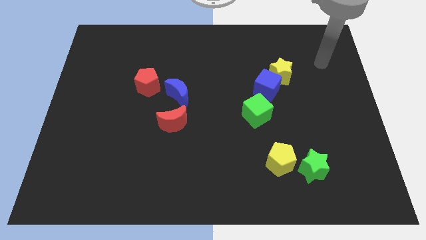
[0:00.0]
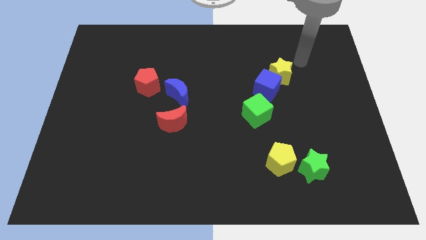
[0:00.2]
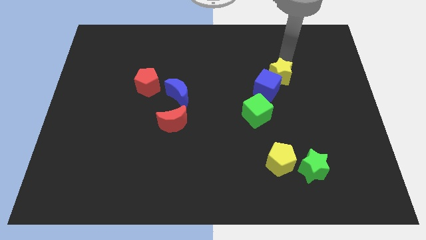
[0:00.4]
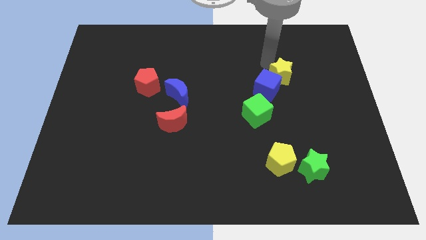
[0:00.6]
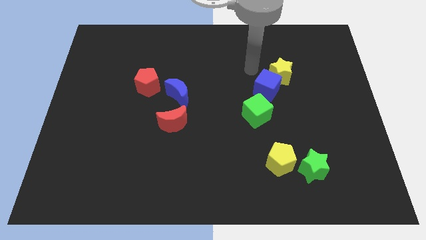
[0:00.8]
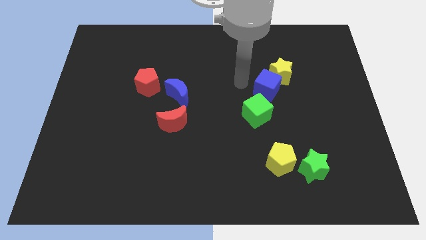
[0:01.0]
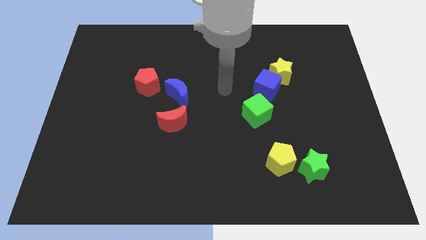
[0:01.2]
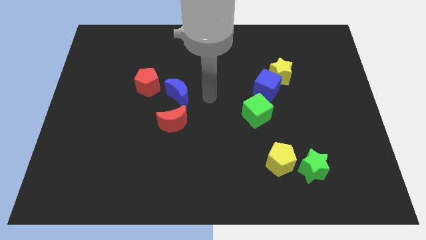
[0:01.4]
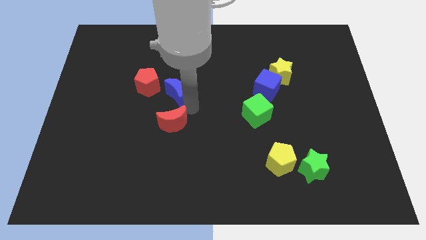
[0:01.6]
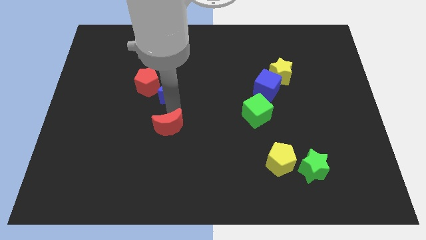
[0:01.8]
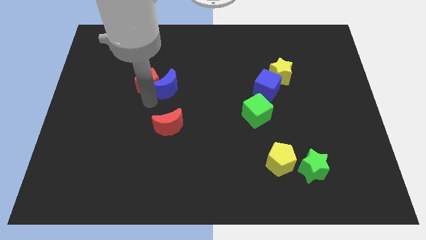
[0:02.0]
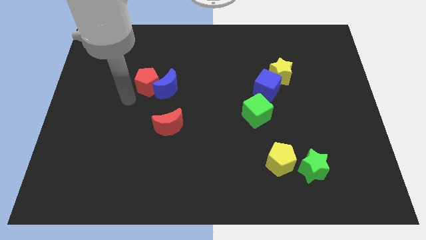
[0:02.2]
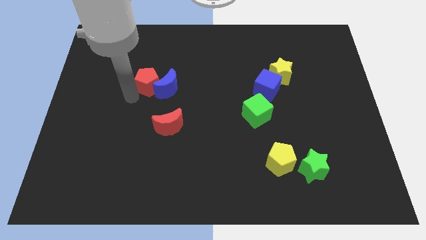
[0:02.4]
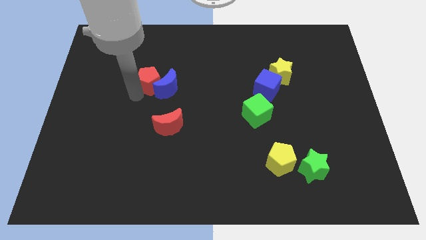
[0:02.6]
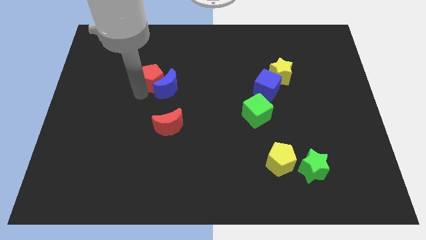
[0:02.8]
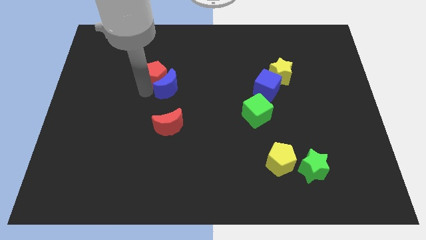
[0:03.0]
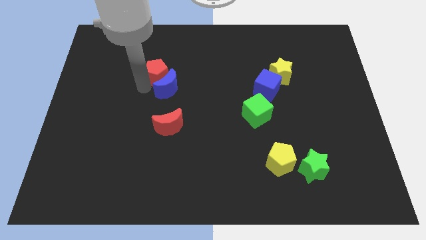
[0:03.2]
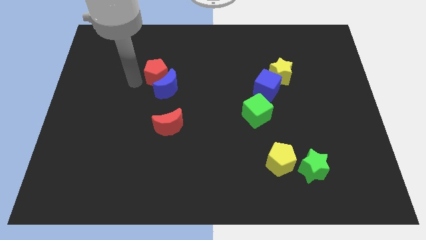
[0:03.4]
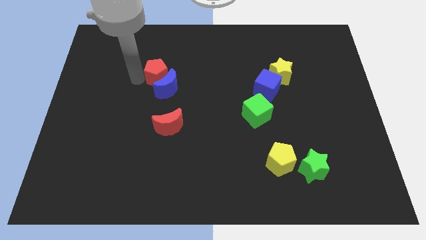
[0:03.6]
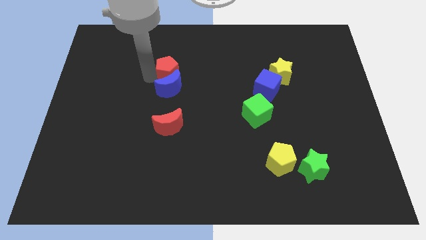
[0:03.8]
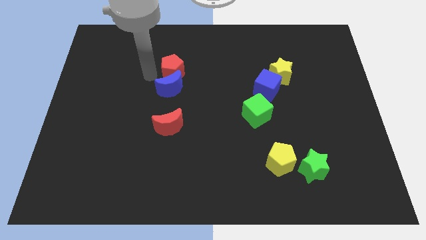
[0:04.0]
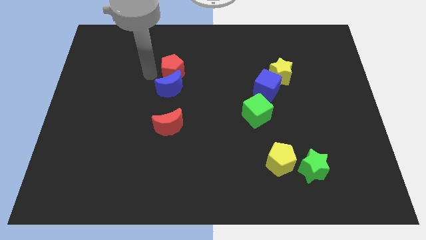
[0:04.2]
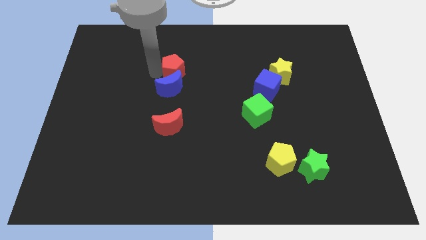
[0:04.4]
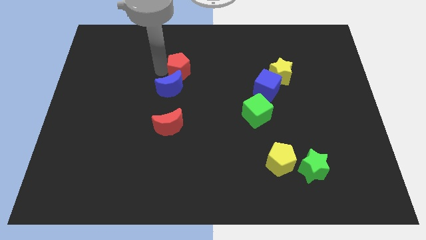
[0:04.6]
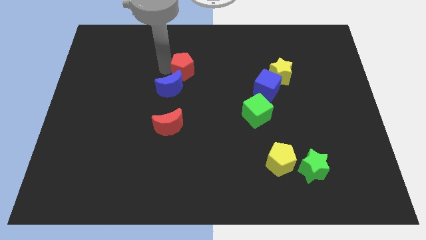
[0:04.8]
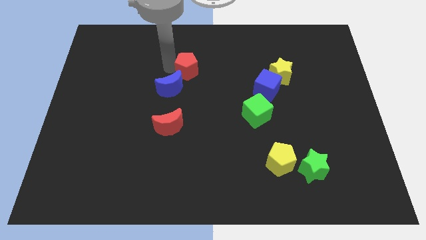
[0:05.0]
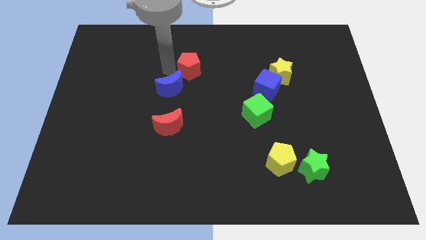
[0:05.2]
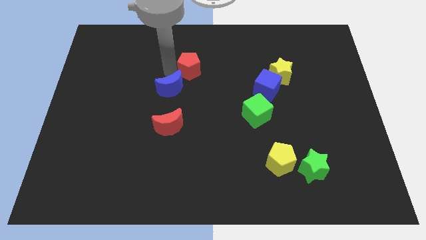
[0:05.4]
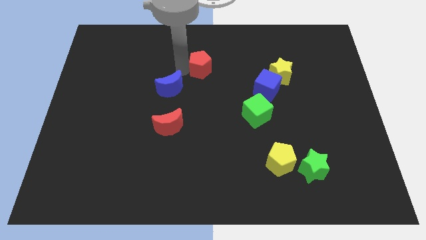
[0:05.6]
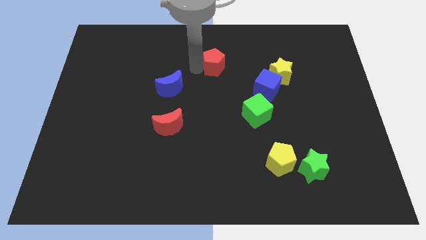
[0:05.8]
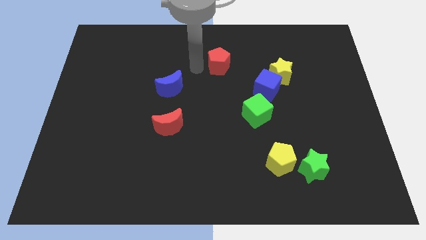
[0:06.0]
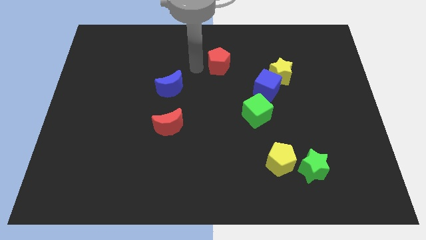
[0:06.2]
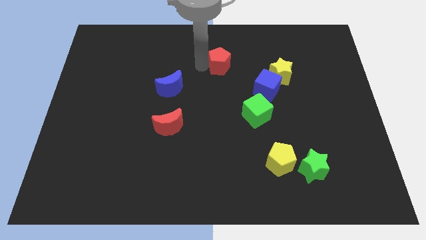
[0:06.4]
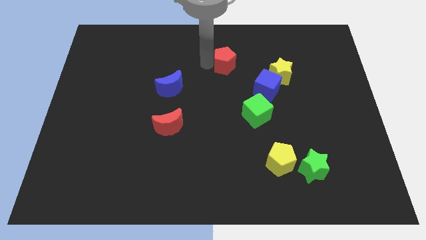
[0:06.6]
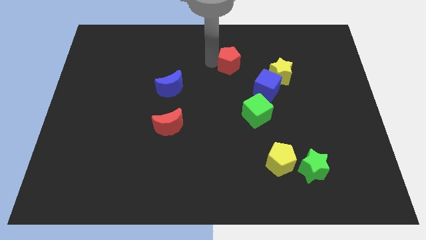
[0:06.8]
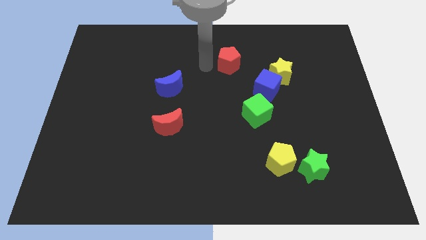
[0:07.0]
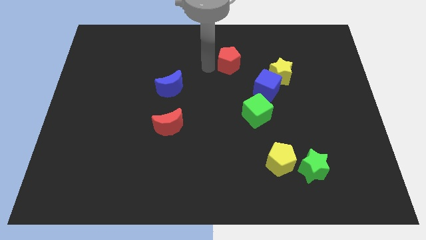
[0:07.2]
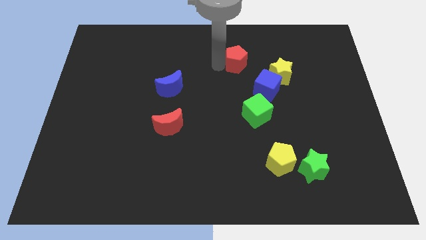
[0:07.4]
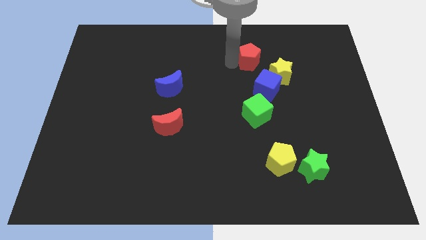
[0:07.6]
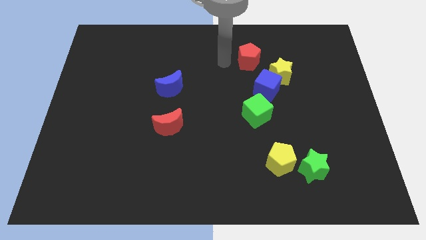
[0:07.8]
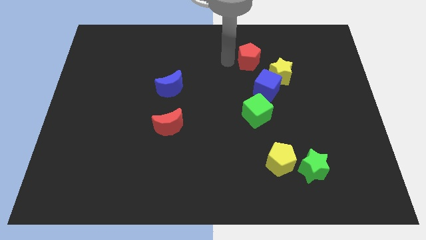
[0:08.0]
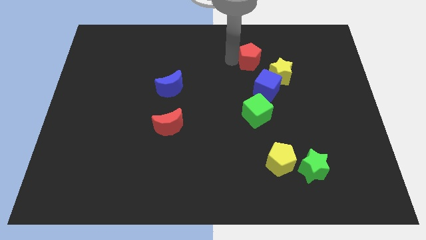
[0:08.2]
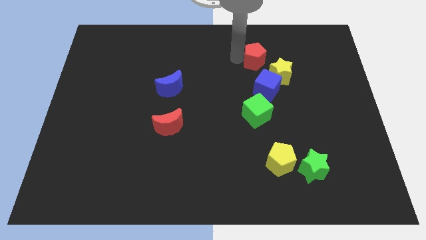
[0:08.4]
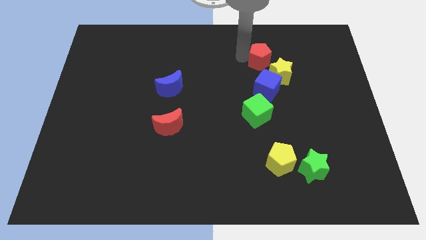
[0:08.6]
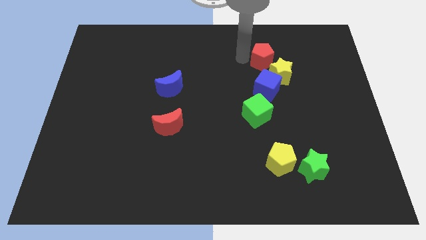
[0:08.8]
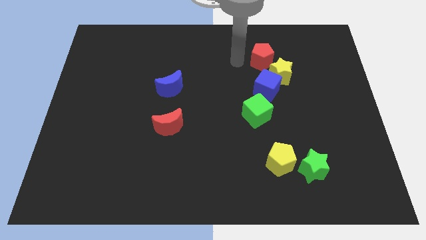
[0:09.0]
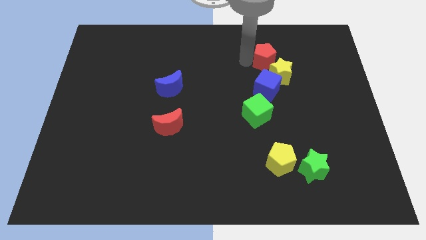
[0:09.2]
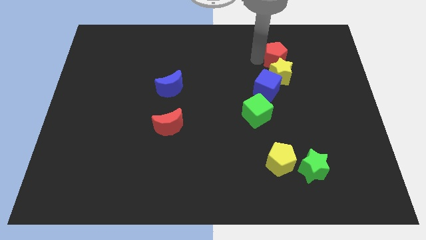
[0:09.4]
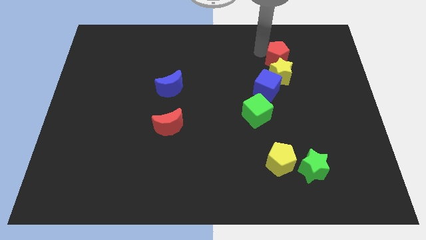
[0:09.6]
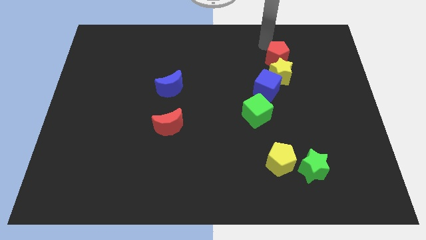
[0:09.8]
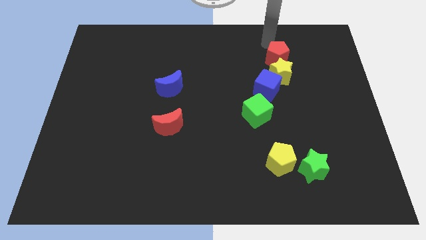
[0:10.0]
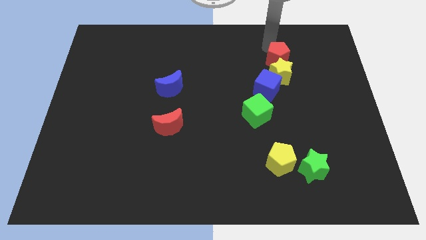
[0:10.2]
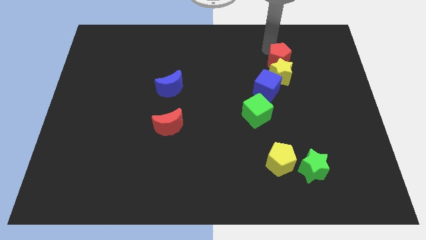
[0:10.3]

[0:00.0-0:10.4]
push the red pentagon diagonally up and to the right of the blue cube

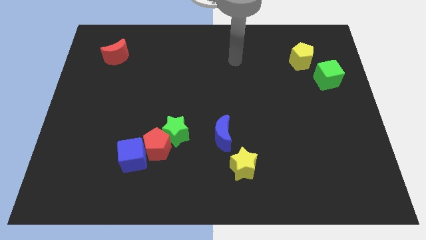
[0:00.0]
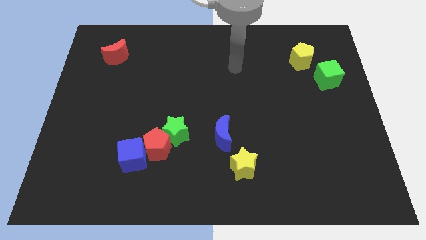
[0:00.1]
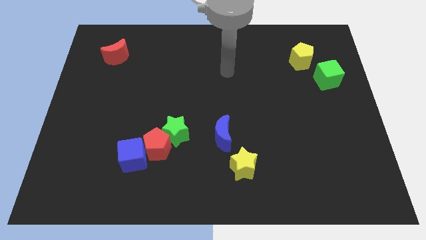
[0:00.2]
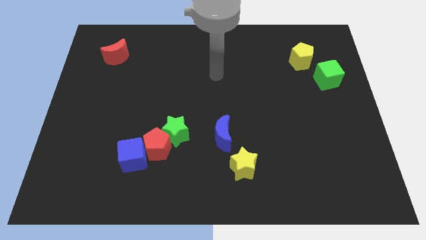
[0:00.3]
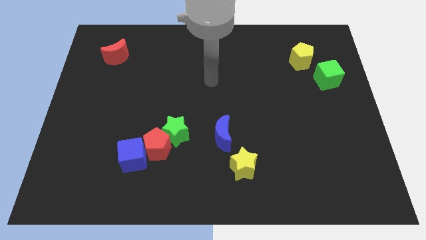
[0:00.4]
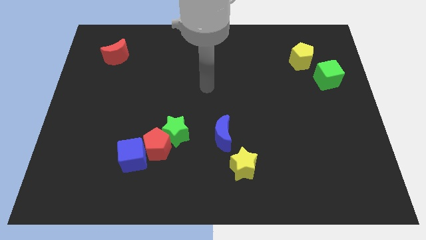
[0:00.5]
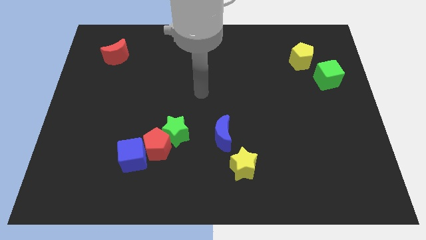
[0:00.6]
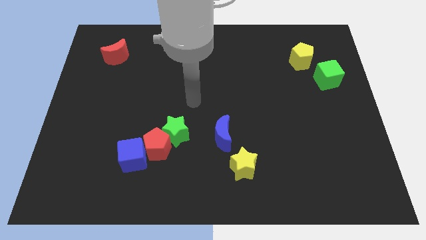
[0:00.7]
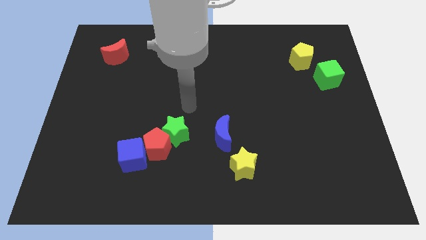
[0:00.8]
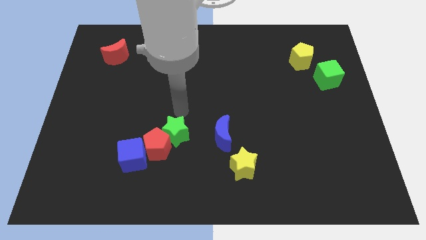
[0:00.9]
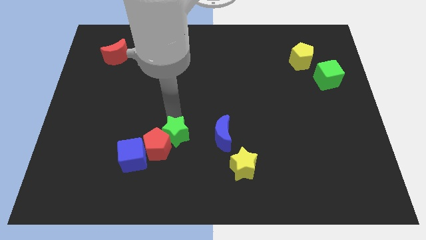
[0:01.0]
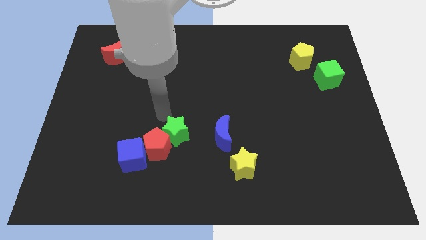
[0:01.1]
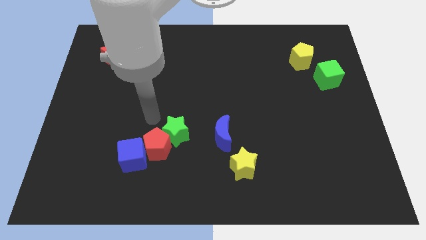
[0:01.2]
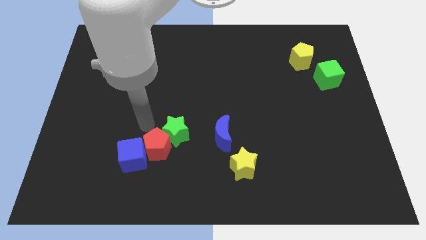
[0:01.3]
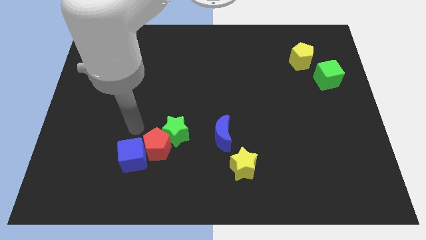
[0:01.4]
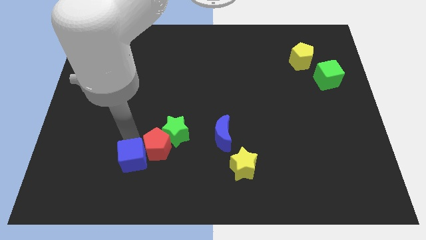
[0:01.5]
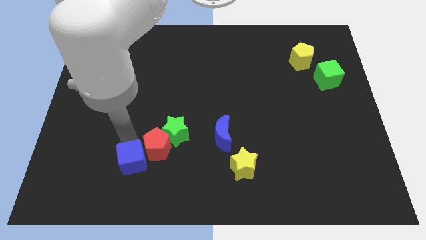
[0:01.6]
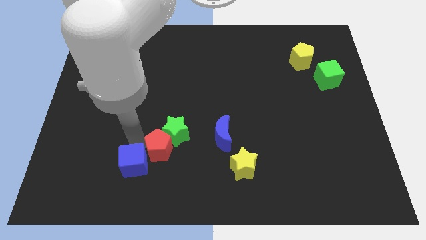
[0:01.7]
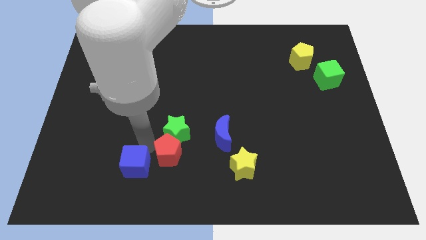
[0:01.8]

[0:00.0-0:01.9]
put the red pentagon to the bottom right side of the green star

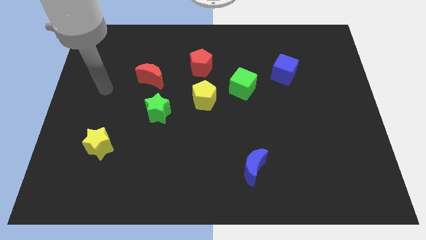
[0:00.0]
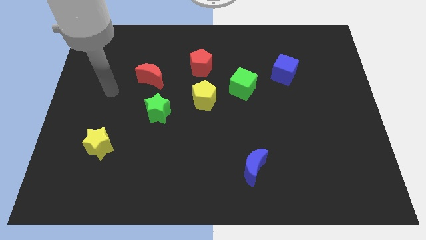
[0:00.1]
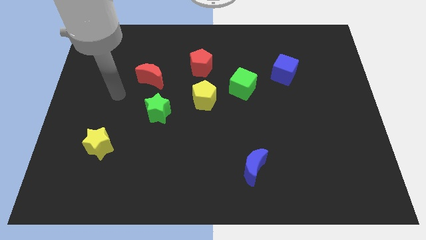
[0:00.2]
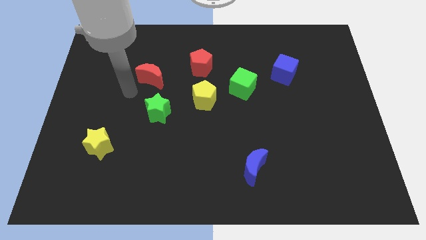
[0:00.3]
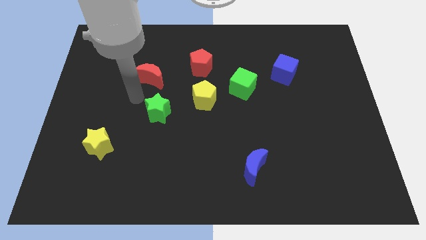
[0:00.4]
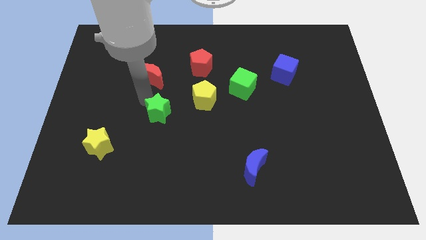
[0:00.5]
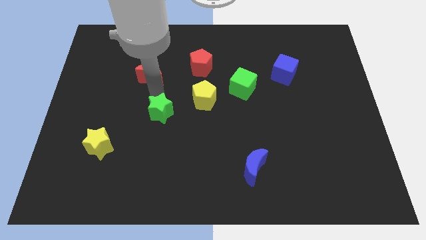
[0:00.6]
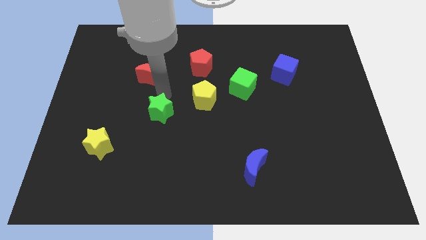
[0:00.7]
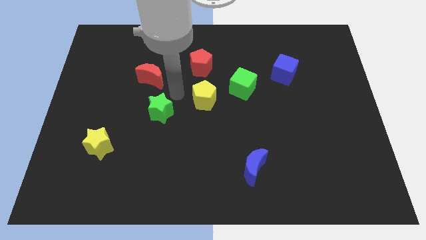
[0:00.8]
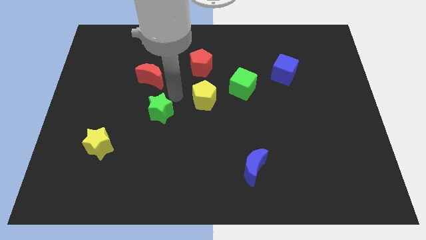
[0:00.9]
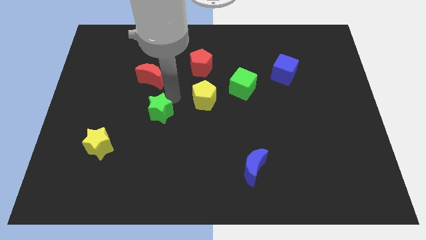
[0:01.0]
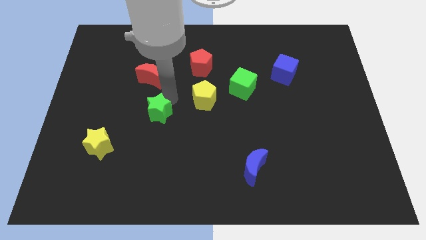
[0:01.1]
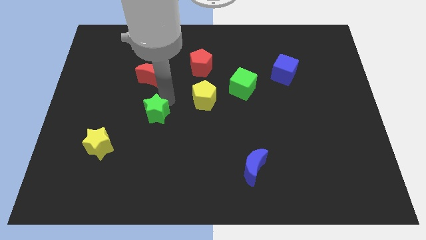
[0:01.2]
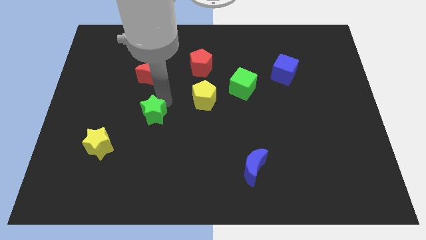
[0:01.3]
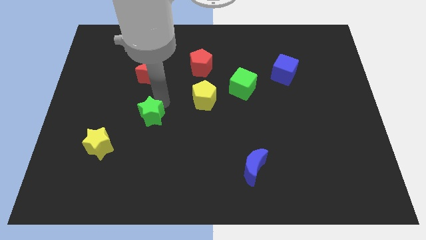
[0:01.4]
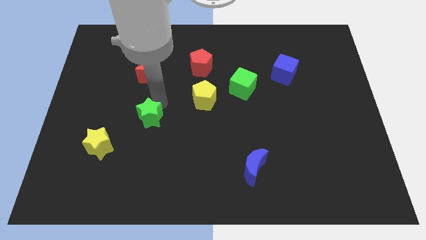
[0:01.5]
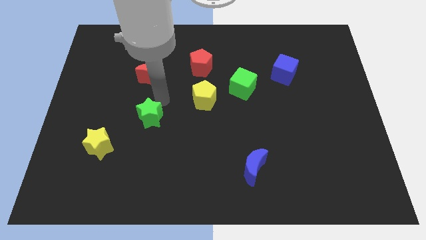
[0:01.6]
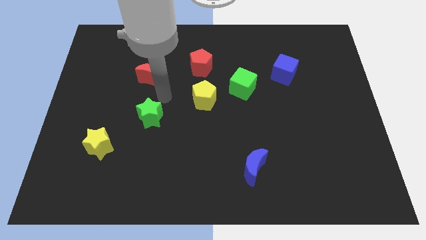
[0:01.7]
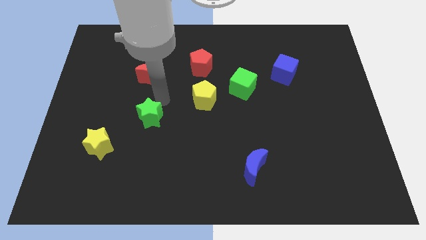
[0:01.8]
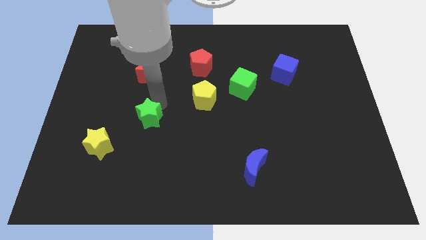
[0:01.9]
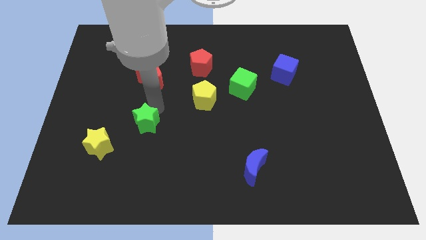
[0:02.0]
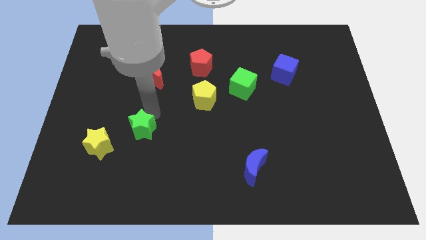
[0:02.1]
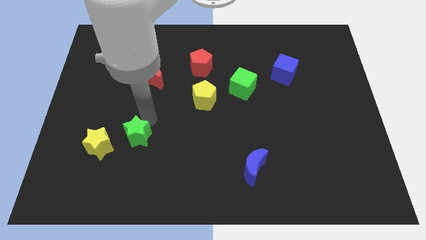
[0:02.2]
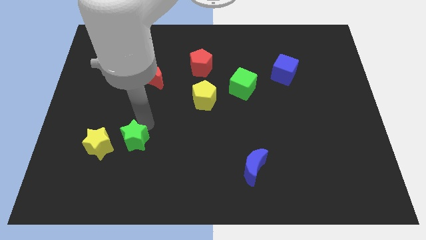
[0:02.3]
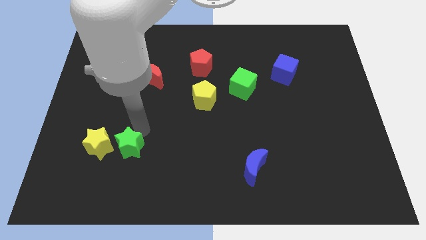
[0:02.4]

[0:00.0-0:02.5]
put the green star to the bottom right side of the yellow star
